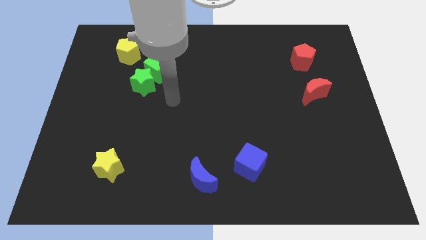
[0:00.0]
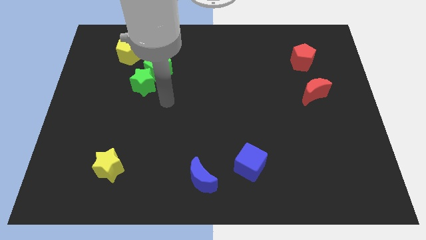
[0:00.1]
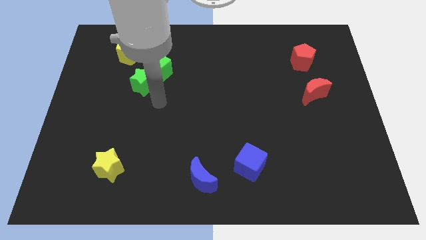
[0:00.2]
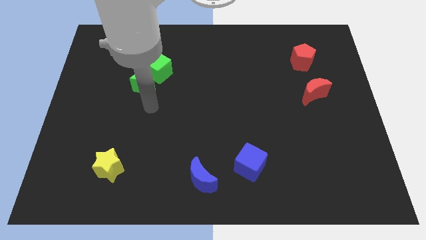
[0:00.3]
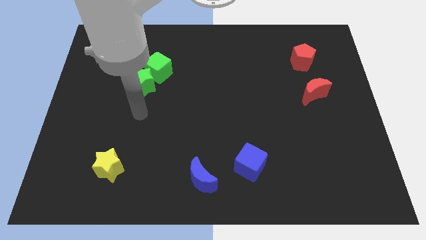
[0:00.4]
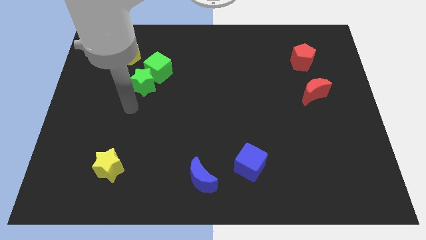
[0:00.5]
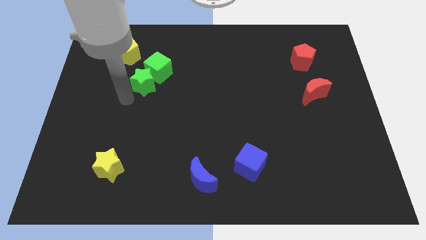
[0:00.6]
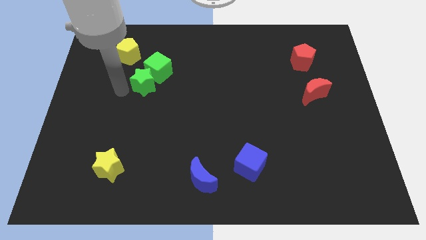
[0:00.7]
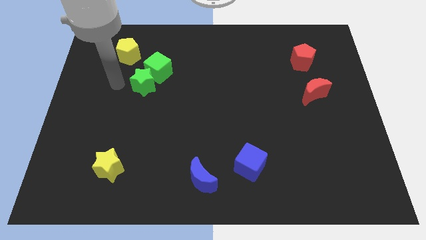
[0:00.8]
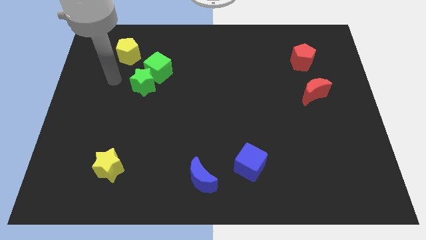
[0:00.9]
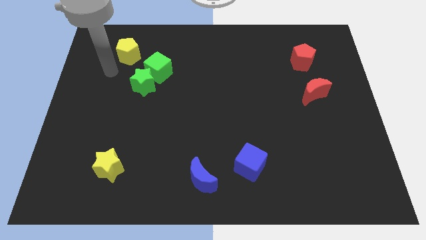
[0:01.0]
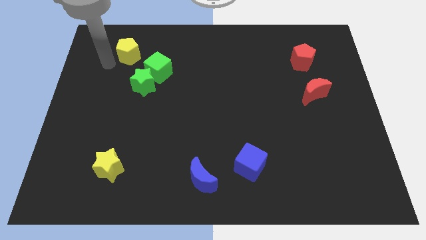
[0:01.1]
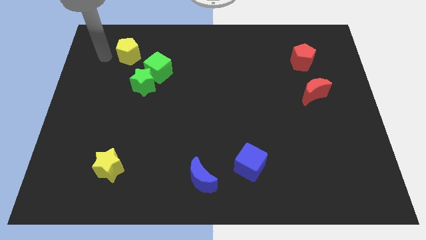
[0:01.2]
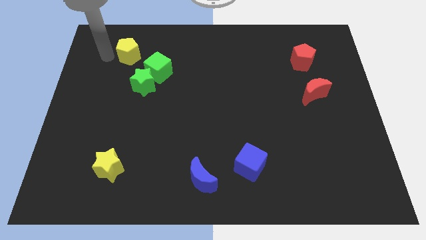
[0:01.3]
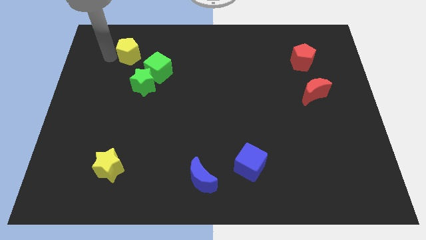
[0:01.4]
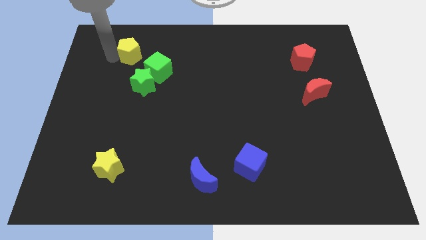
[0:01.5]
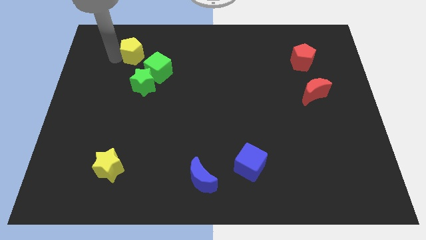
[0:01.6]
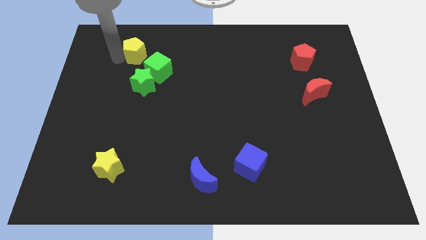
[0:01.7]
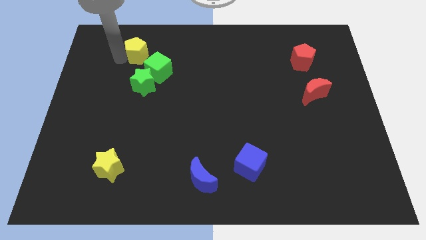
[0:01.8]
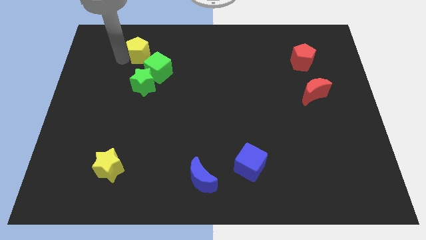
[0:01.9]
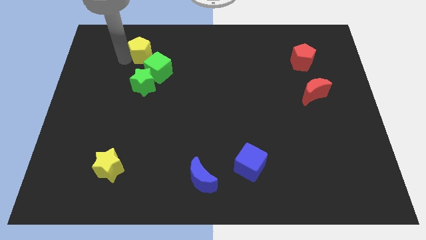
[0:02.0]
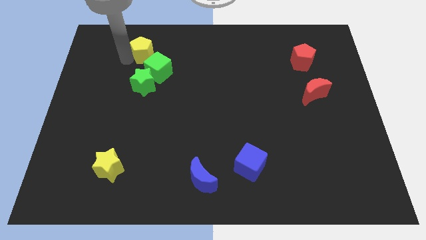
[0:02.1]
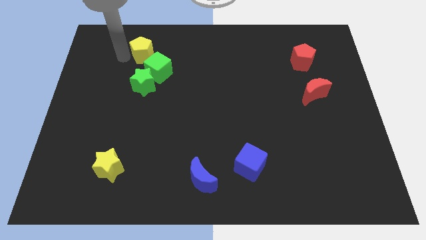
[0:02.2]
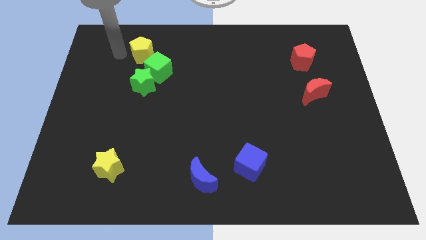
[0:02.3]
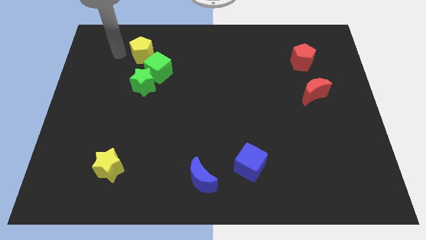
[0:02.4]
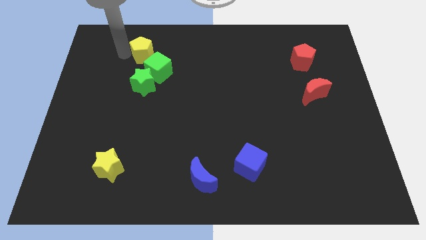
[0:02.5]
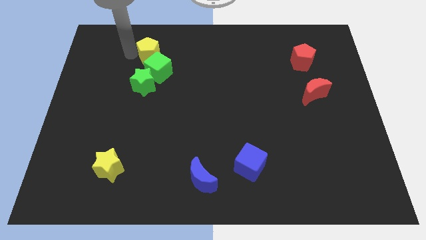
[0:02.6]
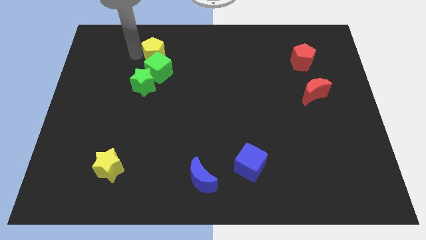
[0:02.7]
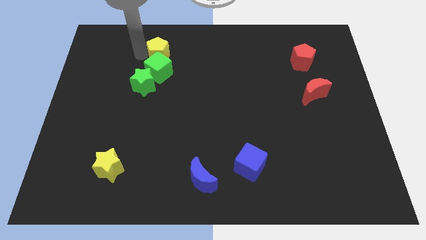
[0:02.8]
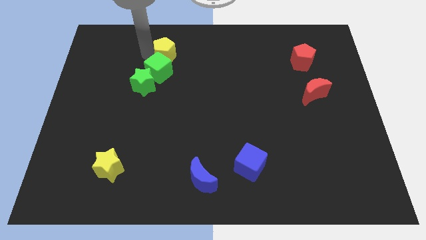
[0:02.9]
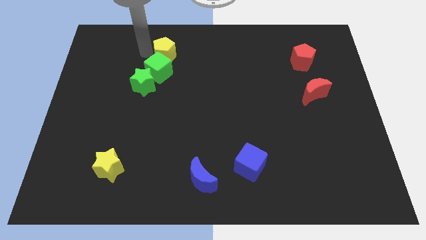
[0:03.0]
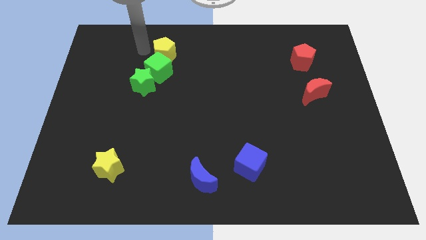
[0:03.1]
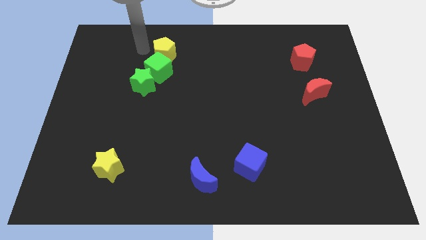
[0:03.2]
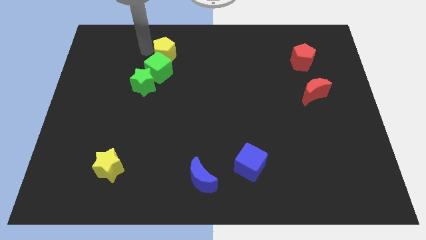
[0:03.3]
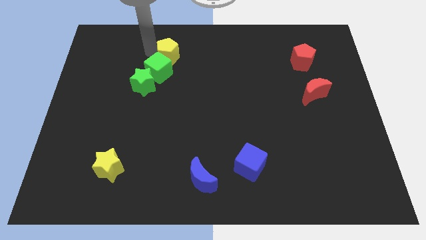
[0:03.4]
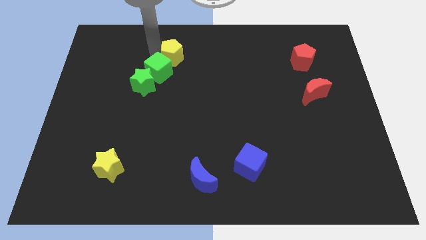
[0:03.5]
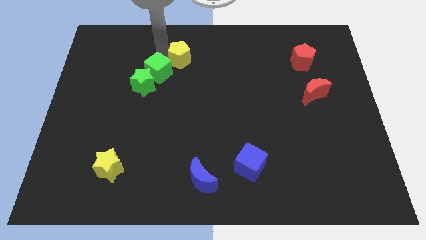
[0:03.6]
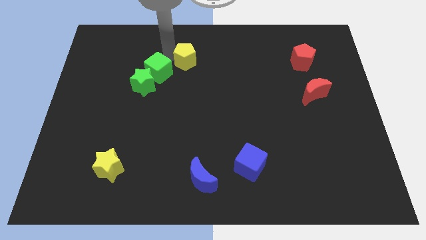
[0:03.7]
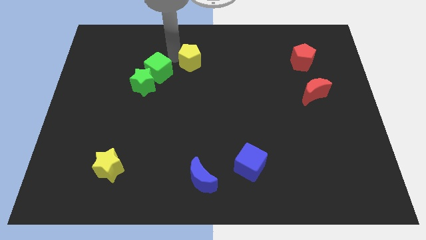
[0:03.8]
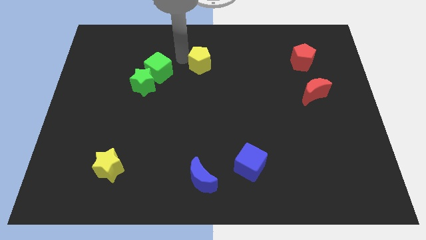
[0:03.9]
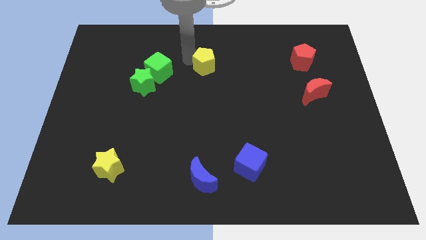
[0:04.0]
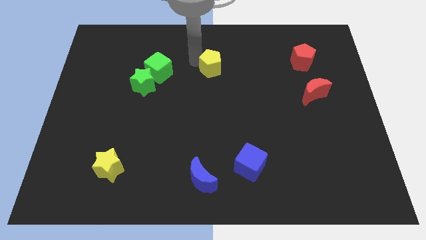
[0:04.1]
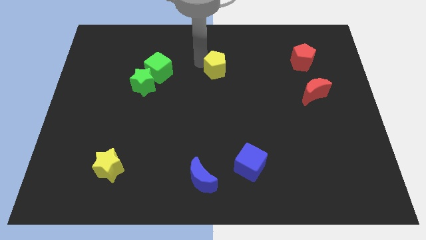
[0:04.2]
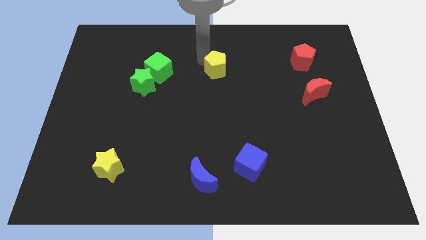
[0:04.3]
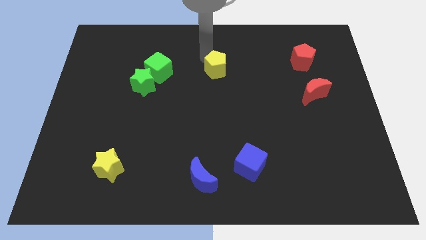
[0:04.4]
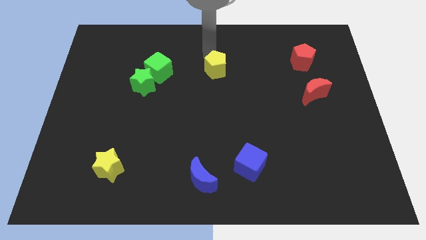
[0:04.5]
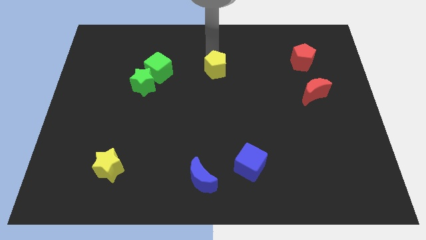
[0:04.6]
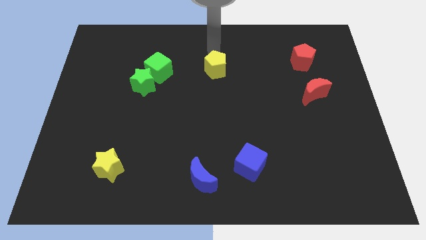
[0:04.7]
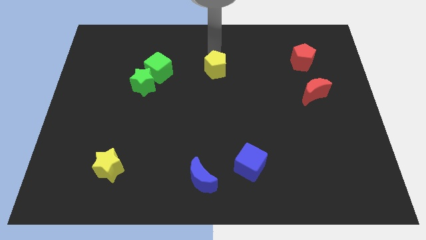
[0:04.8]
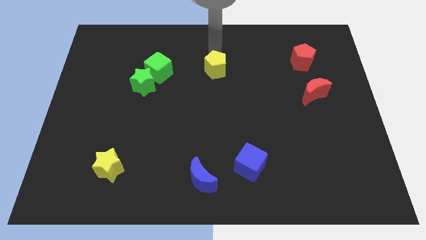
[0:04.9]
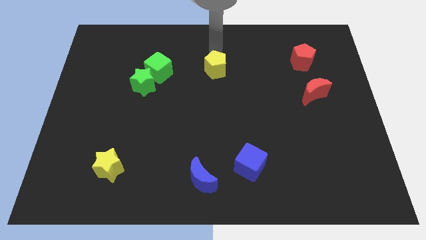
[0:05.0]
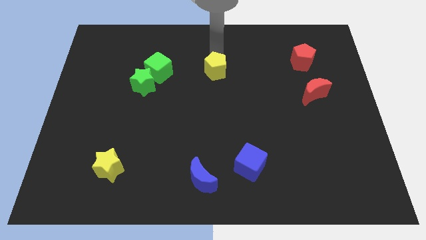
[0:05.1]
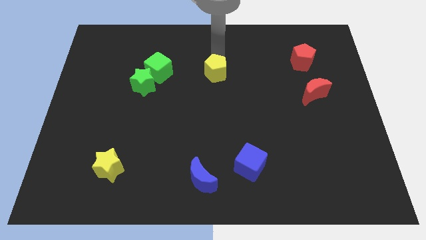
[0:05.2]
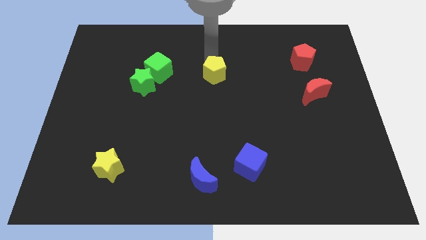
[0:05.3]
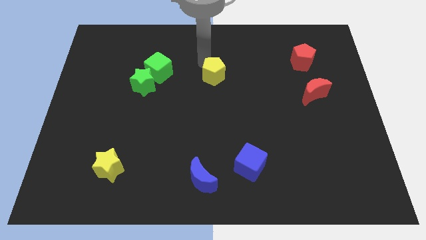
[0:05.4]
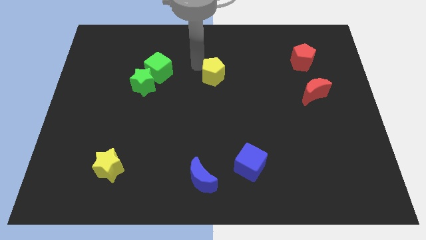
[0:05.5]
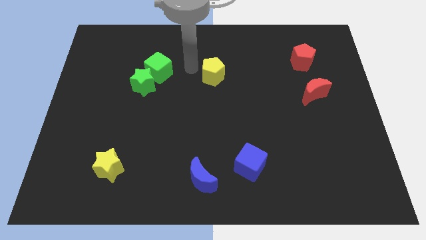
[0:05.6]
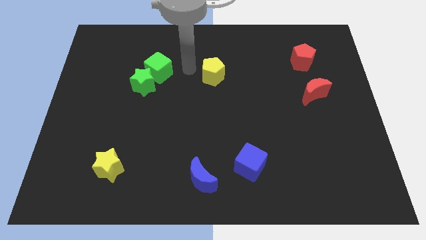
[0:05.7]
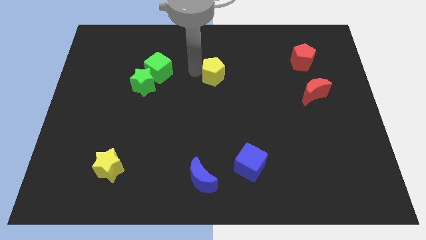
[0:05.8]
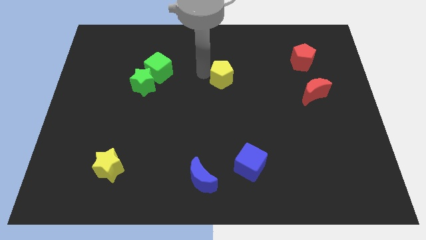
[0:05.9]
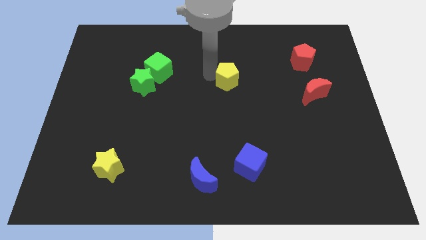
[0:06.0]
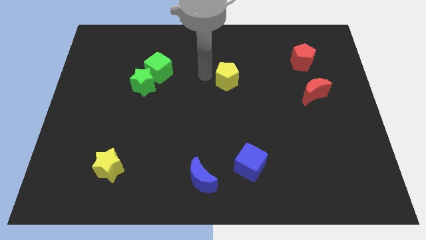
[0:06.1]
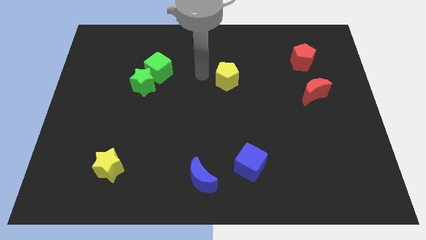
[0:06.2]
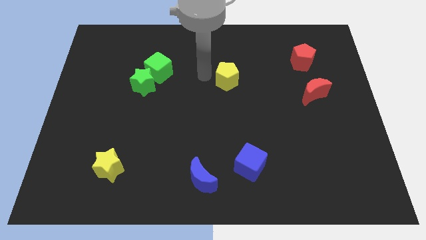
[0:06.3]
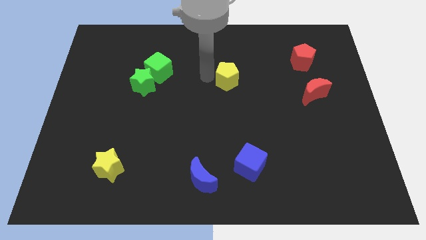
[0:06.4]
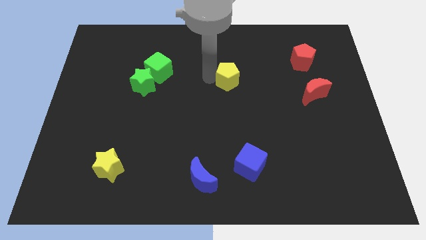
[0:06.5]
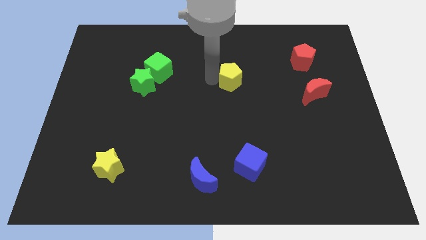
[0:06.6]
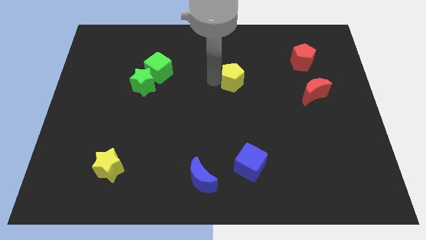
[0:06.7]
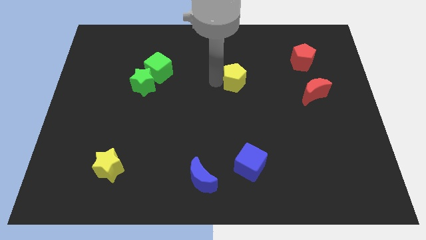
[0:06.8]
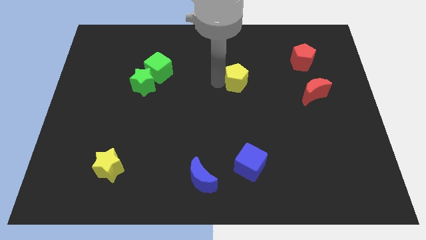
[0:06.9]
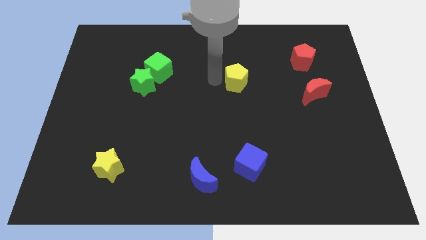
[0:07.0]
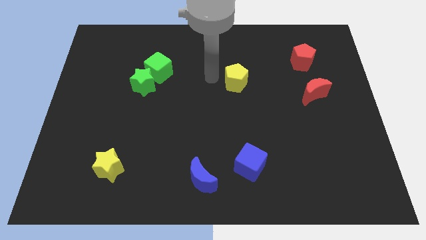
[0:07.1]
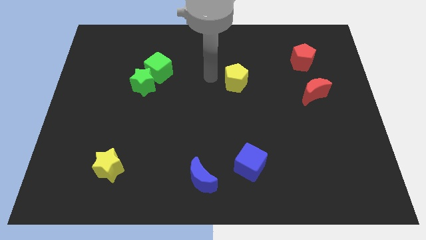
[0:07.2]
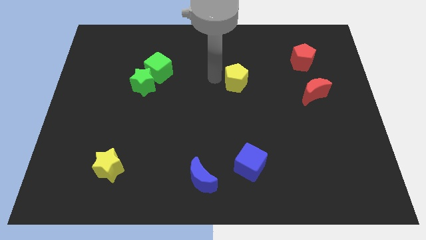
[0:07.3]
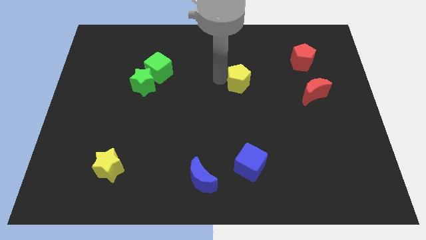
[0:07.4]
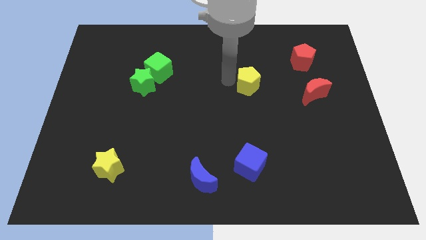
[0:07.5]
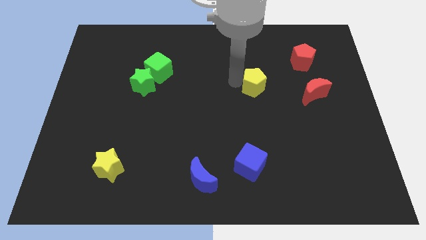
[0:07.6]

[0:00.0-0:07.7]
push the yellow pentagon just left of the red moon
